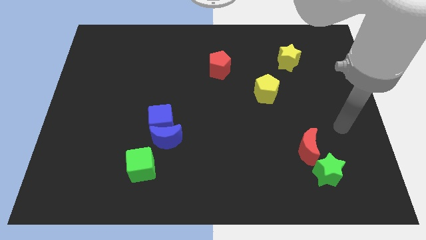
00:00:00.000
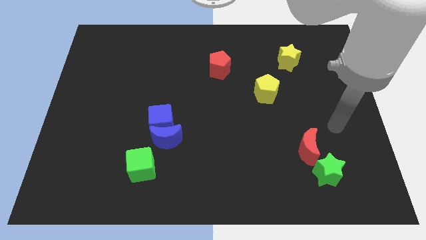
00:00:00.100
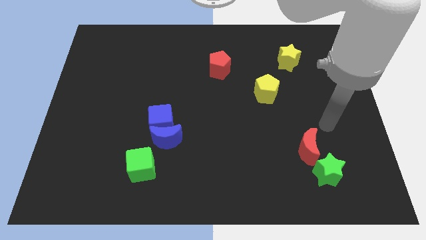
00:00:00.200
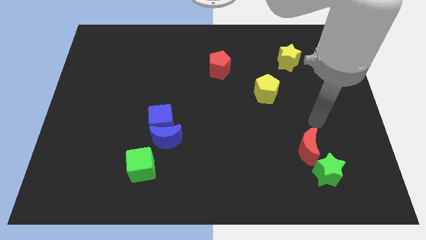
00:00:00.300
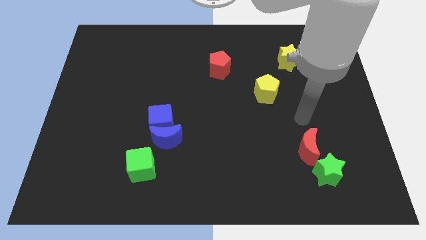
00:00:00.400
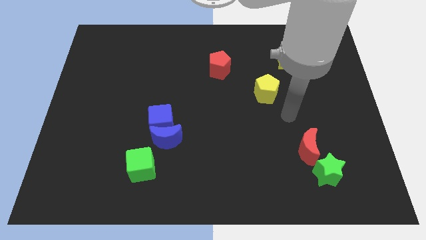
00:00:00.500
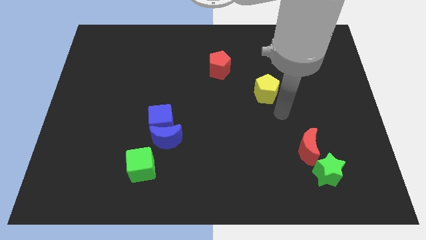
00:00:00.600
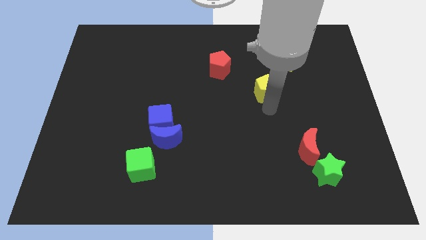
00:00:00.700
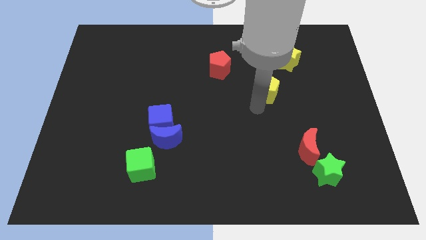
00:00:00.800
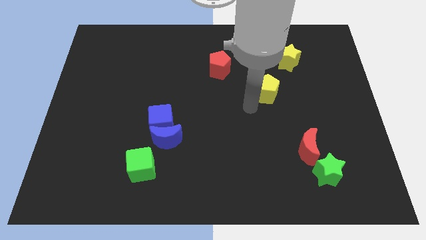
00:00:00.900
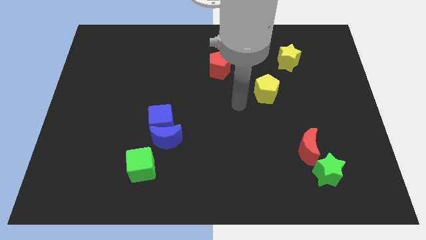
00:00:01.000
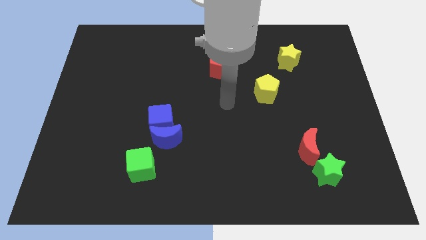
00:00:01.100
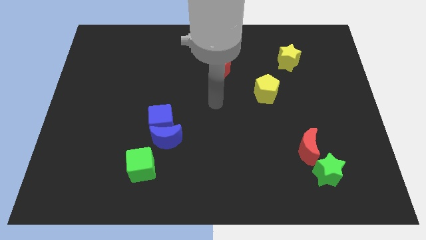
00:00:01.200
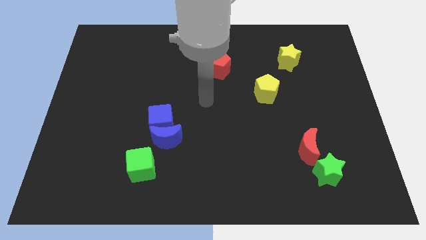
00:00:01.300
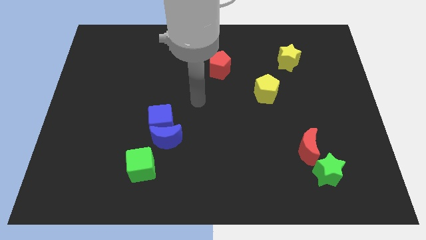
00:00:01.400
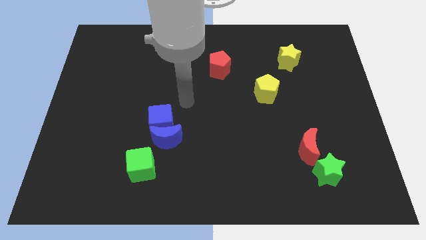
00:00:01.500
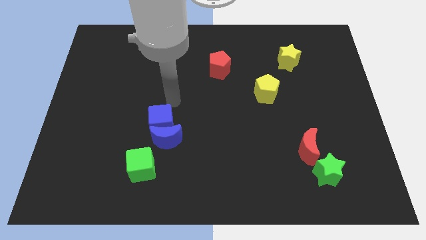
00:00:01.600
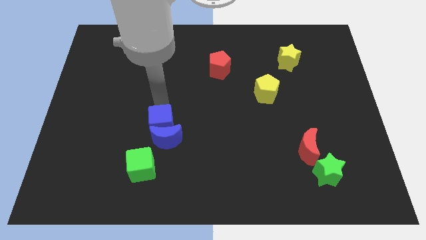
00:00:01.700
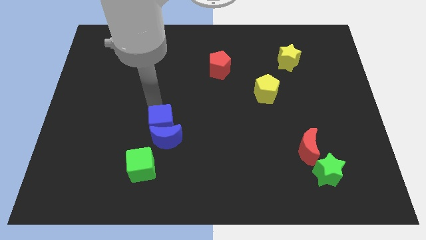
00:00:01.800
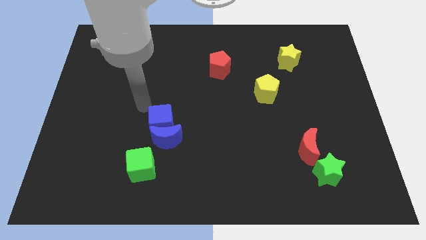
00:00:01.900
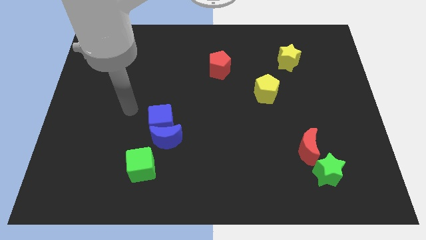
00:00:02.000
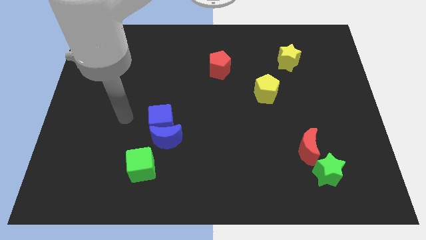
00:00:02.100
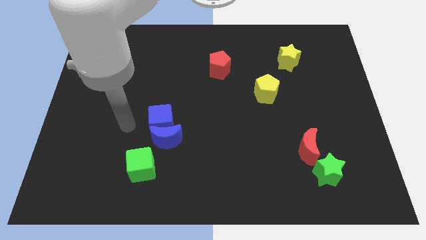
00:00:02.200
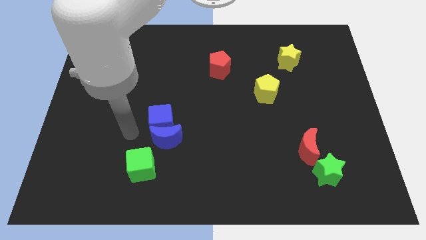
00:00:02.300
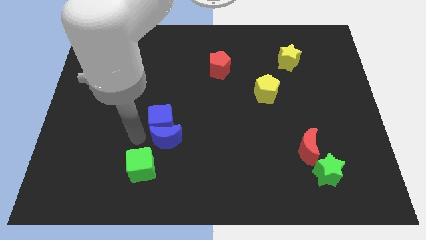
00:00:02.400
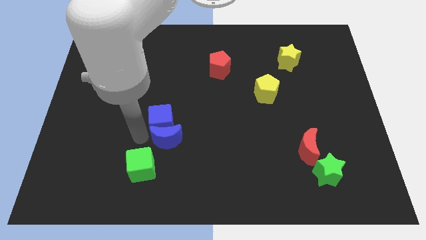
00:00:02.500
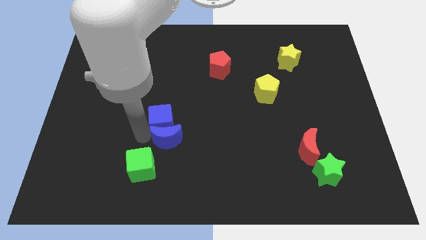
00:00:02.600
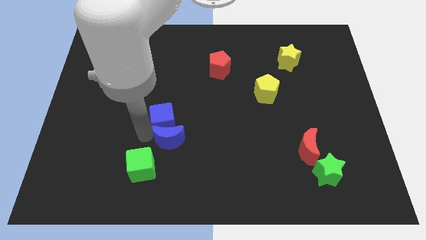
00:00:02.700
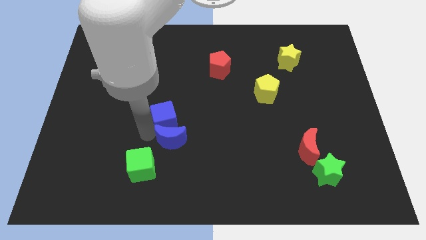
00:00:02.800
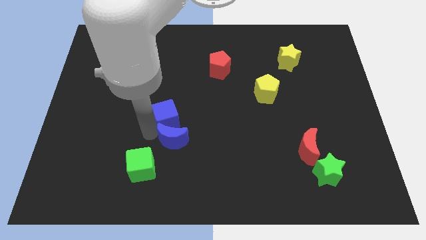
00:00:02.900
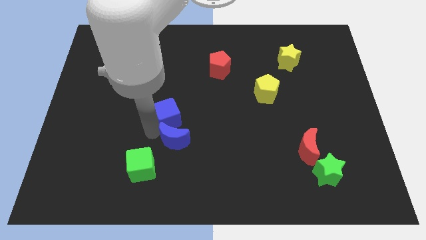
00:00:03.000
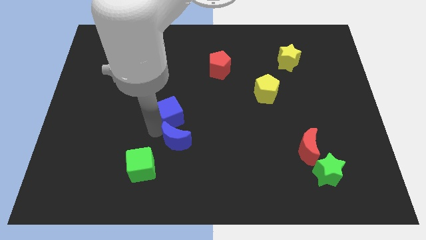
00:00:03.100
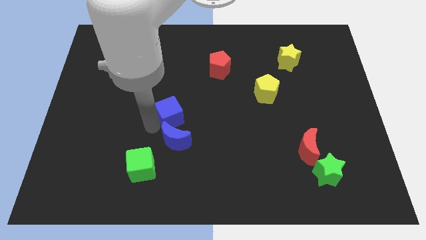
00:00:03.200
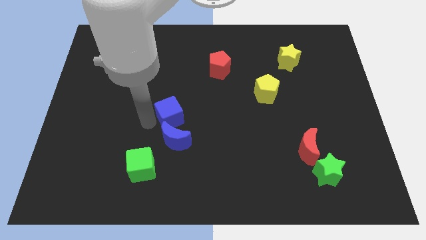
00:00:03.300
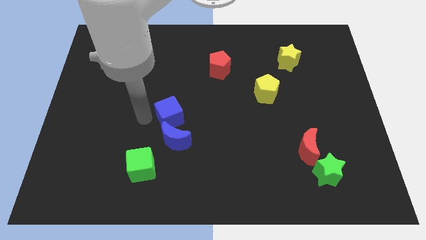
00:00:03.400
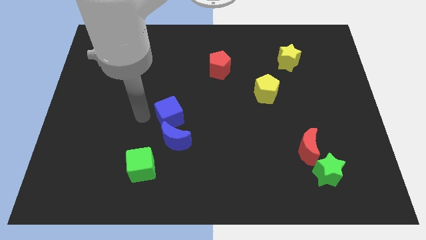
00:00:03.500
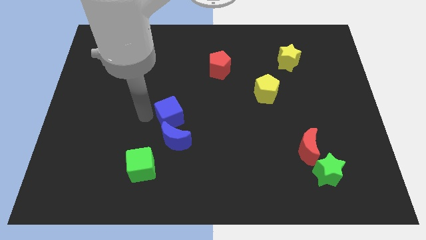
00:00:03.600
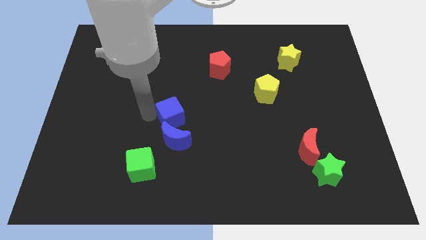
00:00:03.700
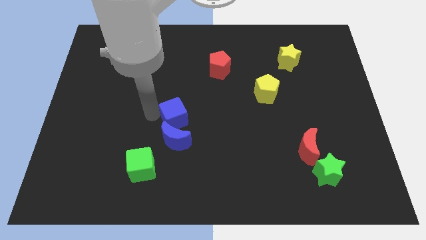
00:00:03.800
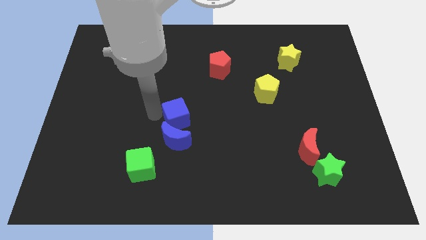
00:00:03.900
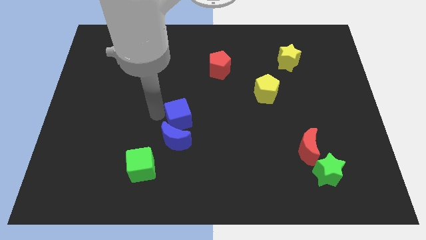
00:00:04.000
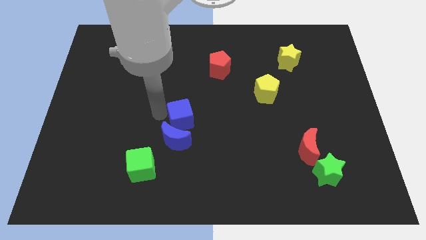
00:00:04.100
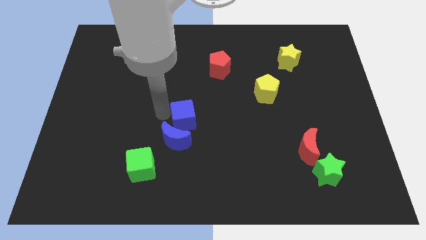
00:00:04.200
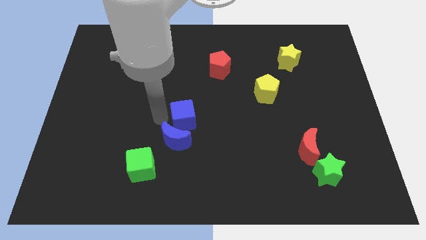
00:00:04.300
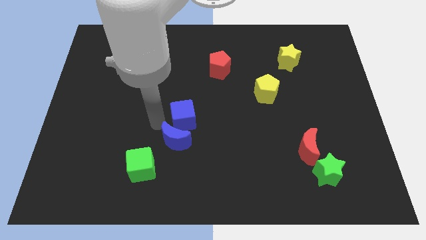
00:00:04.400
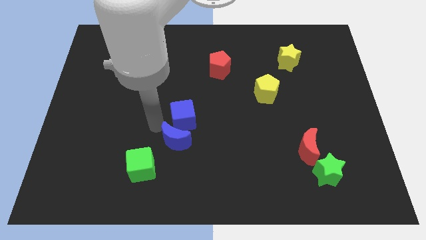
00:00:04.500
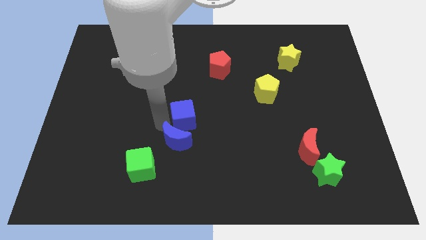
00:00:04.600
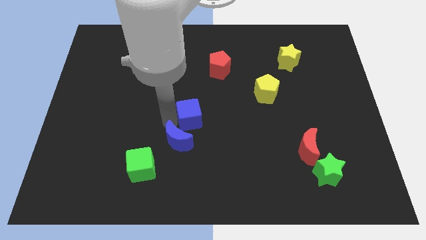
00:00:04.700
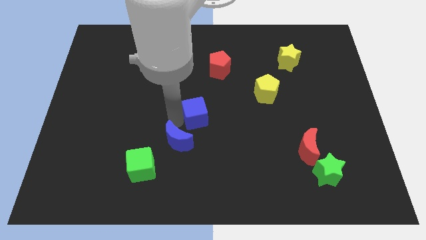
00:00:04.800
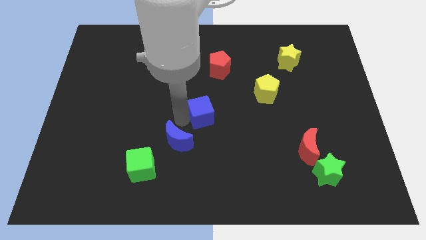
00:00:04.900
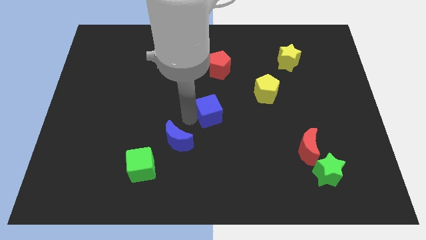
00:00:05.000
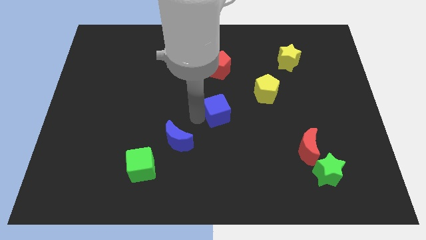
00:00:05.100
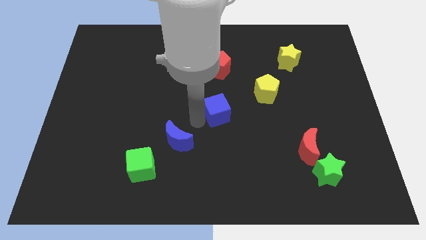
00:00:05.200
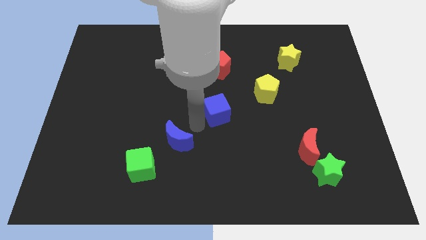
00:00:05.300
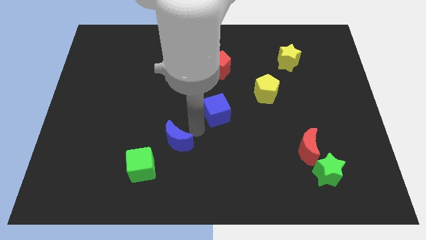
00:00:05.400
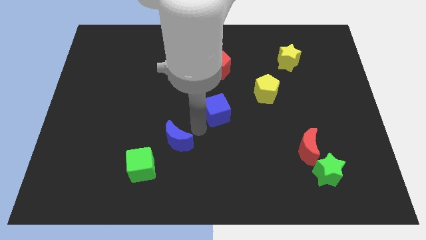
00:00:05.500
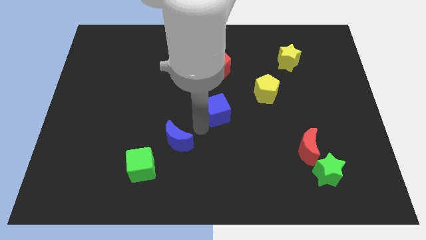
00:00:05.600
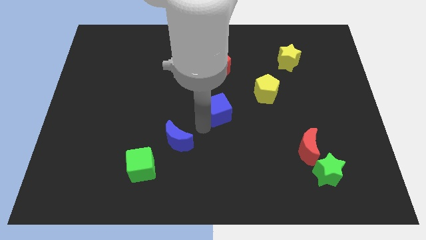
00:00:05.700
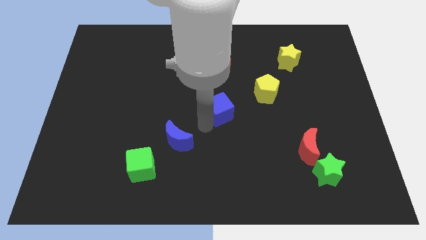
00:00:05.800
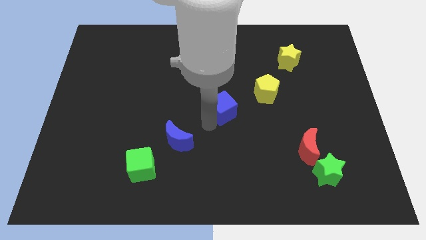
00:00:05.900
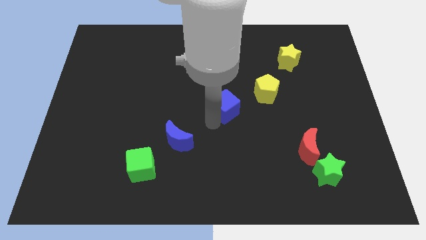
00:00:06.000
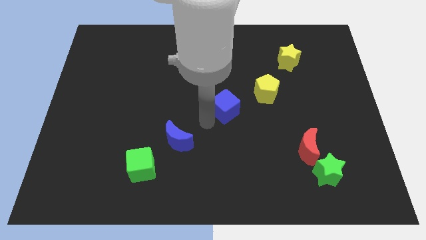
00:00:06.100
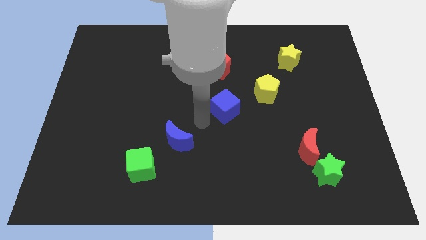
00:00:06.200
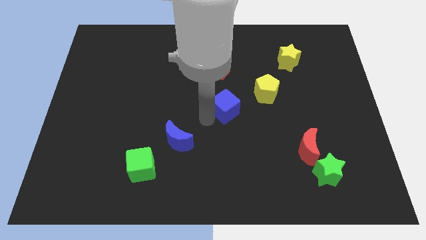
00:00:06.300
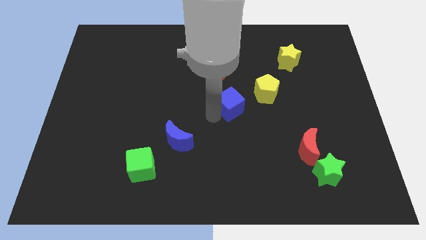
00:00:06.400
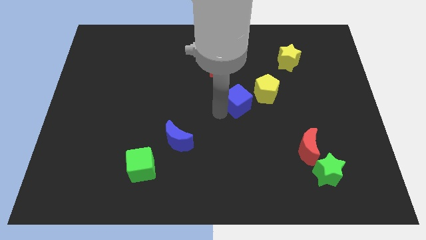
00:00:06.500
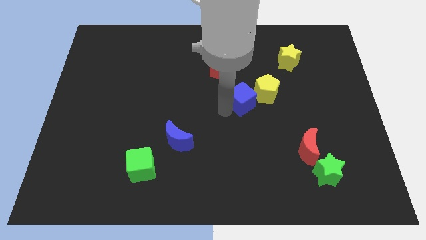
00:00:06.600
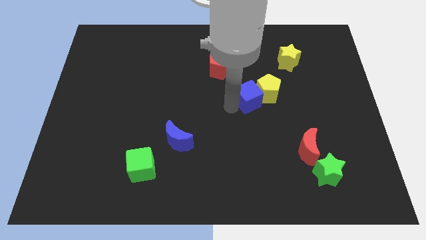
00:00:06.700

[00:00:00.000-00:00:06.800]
slide the blue cube towards the yellow pentagon

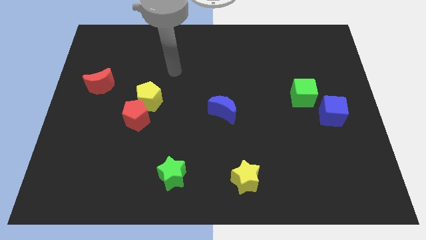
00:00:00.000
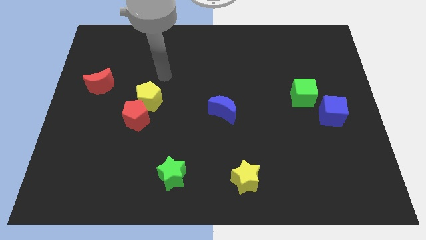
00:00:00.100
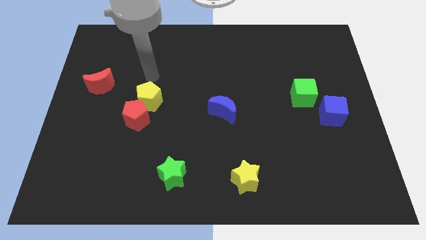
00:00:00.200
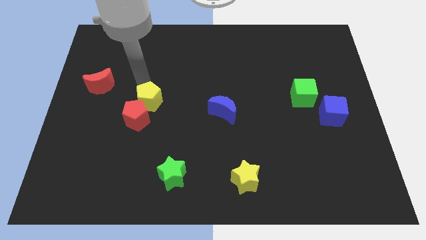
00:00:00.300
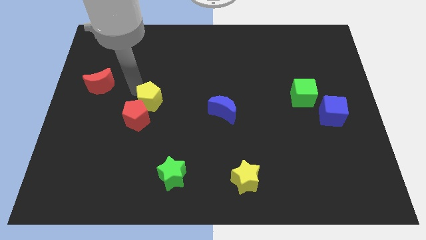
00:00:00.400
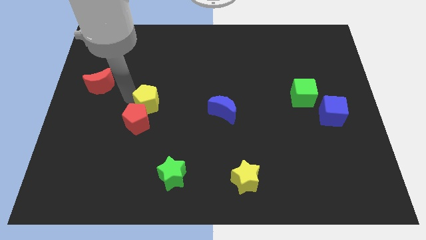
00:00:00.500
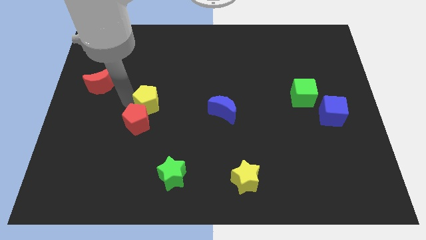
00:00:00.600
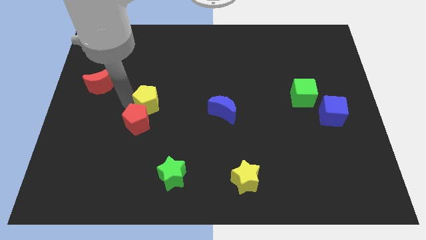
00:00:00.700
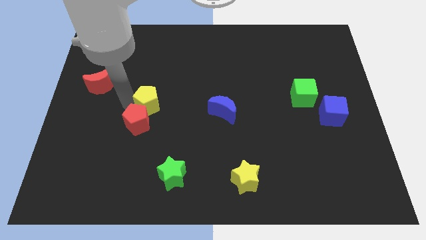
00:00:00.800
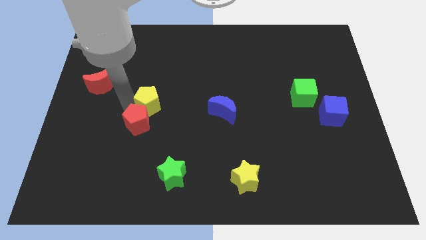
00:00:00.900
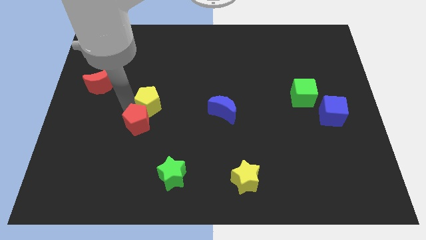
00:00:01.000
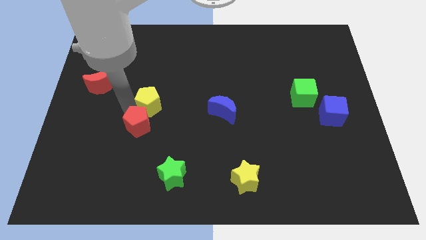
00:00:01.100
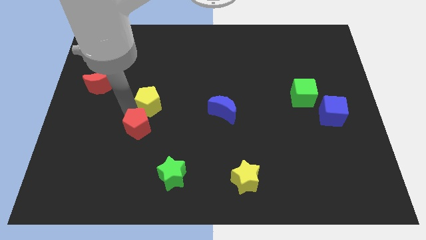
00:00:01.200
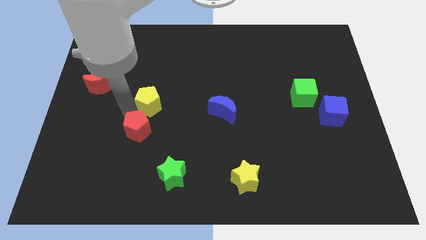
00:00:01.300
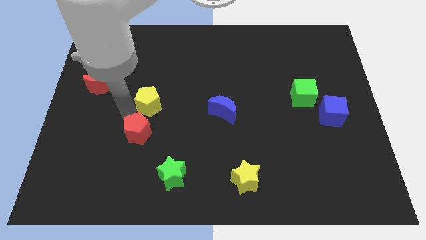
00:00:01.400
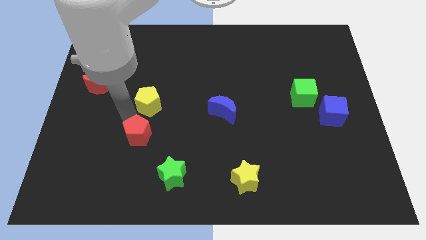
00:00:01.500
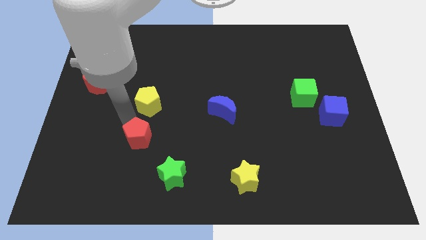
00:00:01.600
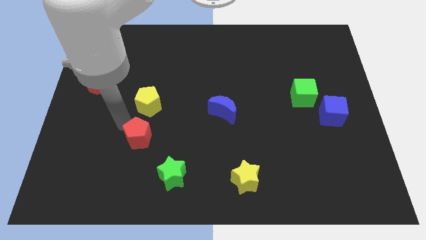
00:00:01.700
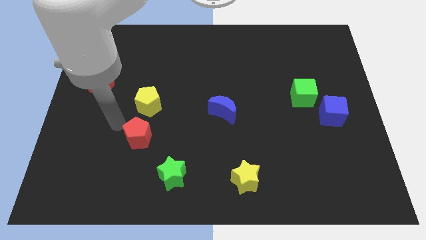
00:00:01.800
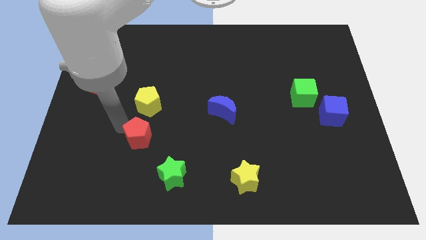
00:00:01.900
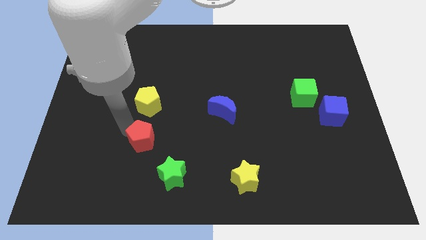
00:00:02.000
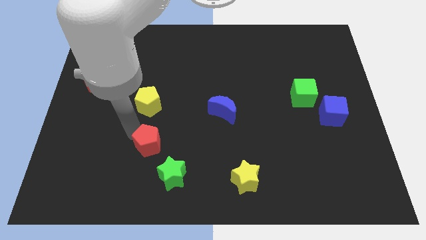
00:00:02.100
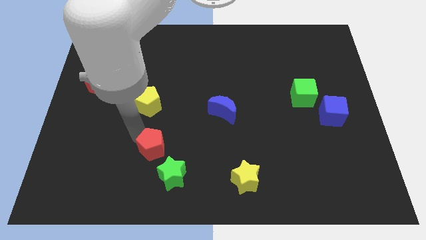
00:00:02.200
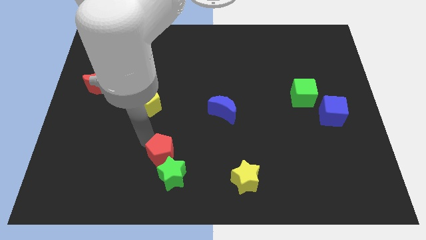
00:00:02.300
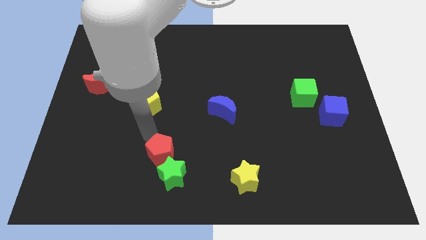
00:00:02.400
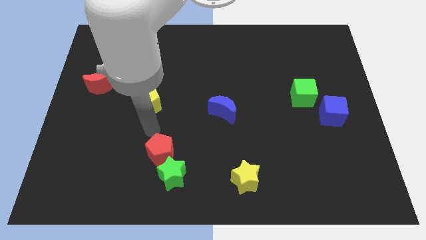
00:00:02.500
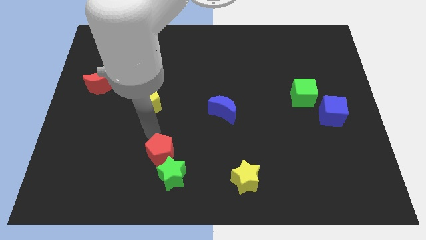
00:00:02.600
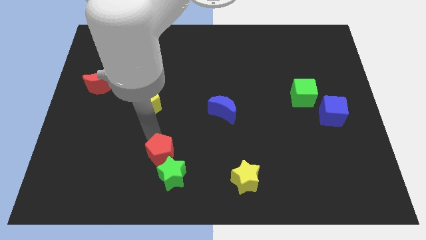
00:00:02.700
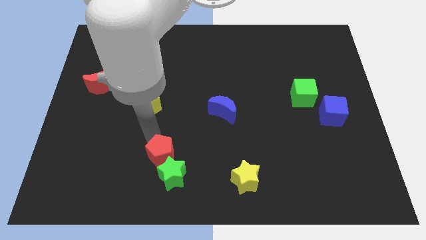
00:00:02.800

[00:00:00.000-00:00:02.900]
move the red pentagon next to the green star
